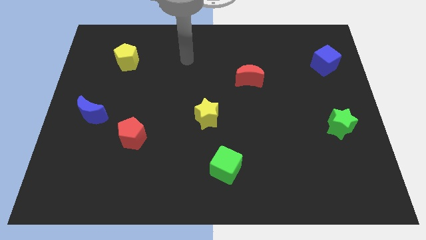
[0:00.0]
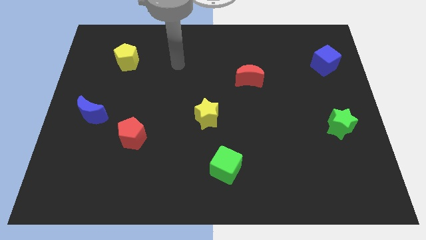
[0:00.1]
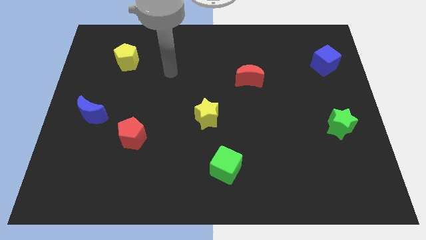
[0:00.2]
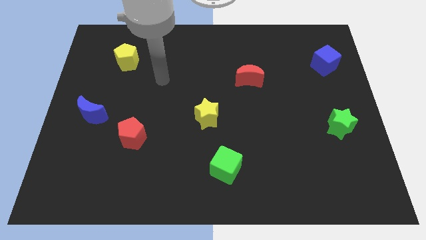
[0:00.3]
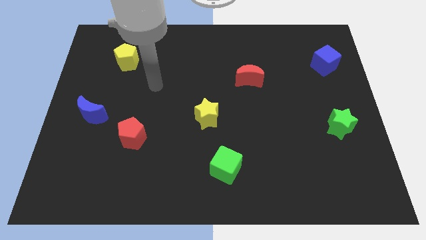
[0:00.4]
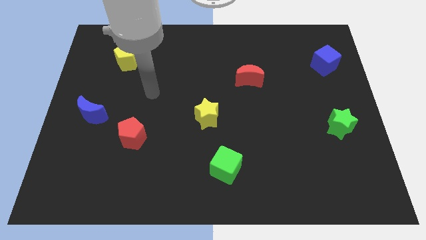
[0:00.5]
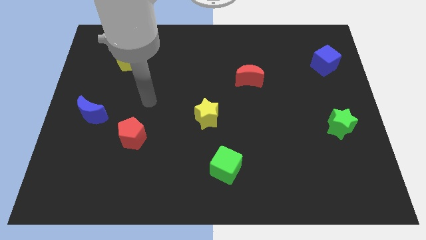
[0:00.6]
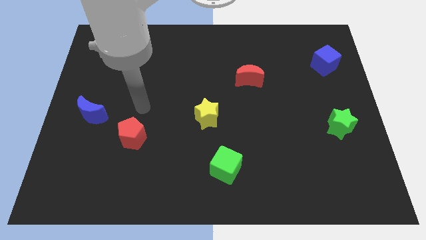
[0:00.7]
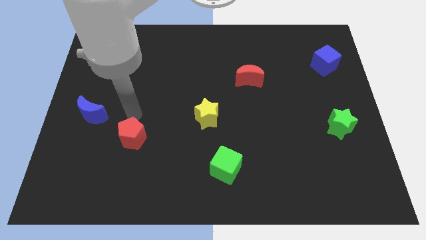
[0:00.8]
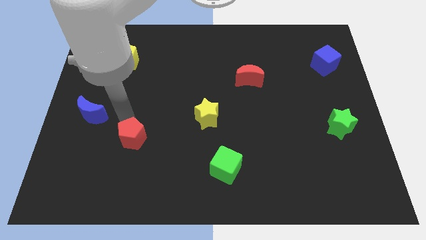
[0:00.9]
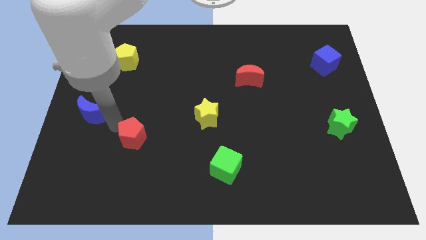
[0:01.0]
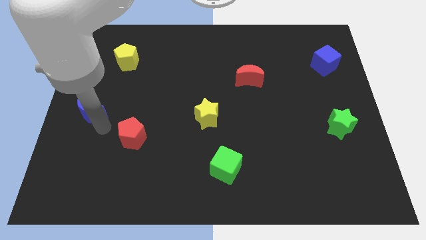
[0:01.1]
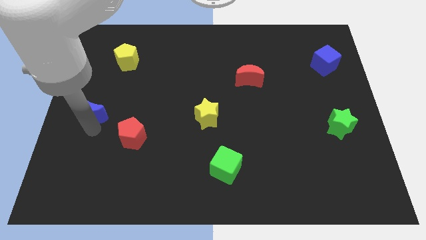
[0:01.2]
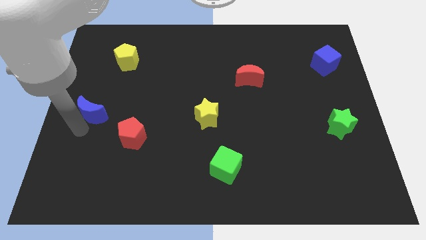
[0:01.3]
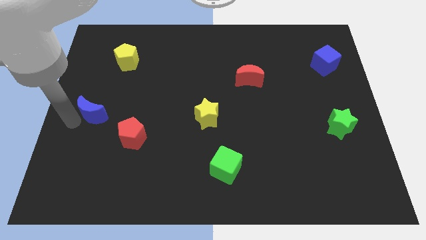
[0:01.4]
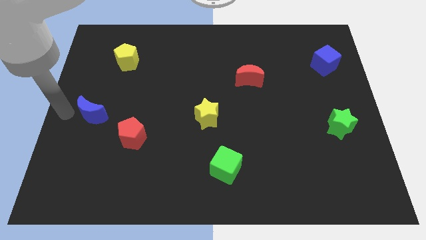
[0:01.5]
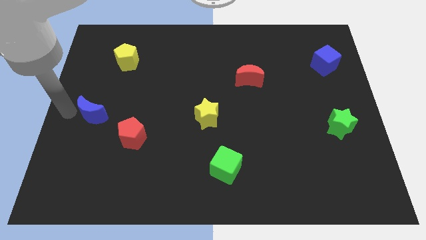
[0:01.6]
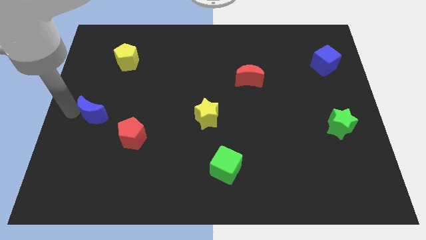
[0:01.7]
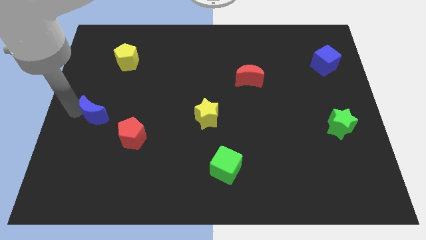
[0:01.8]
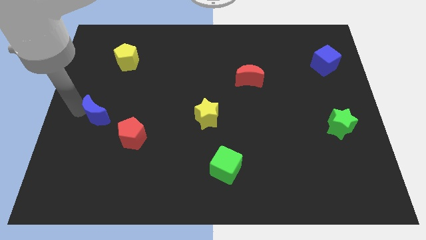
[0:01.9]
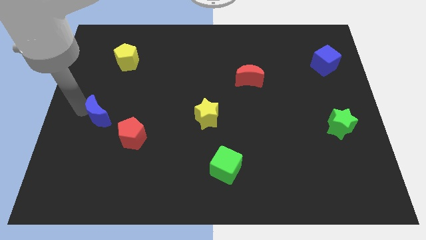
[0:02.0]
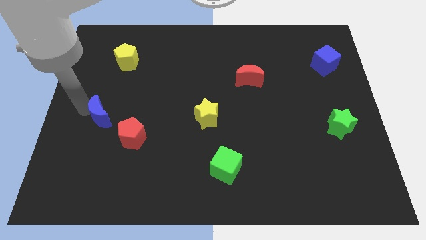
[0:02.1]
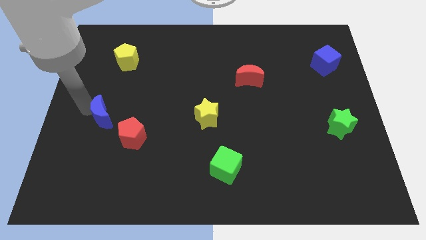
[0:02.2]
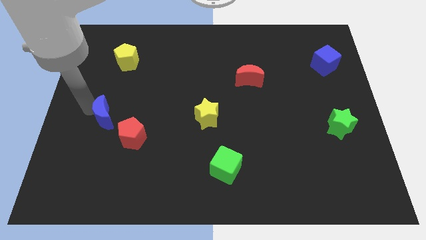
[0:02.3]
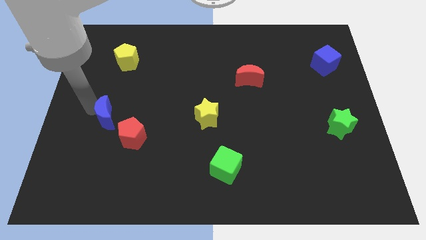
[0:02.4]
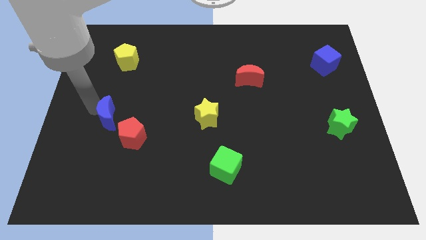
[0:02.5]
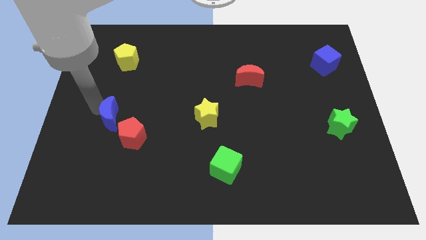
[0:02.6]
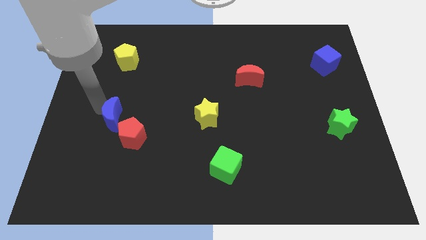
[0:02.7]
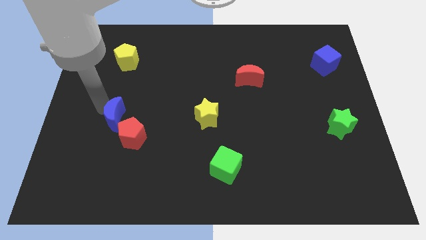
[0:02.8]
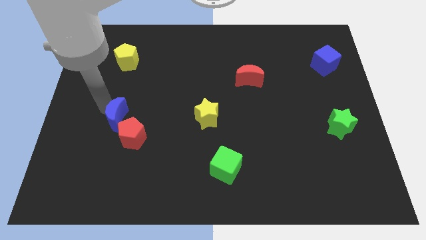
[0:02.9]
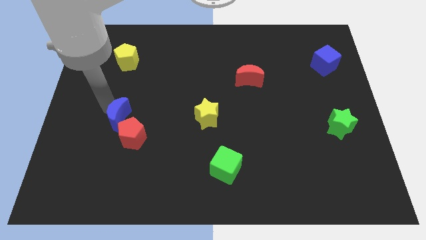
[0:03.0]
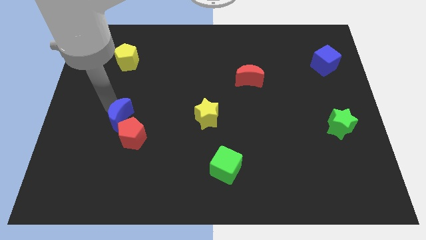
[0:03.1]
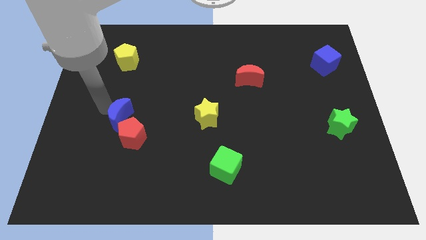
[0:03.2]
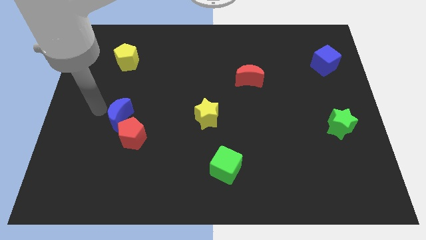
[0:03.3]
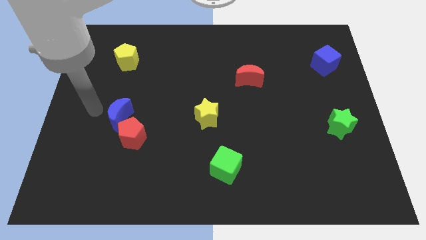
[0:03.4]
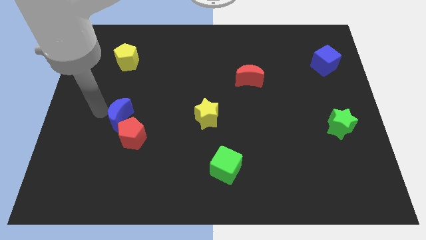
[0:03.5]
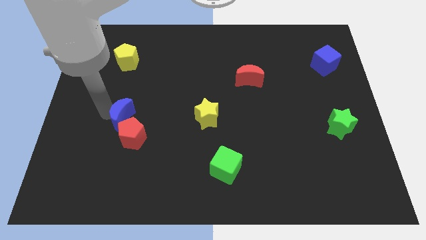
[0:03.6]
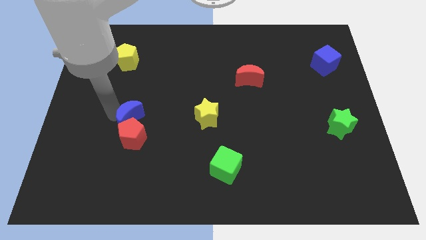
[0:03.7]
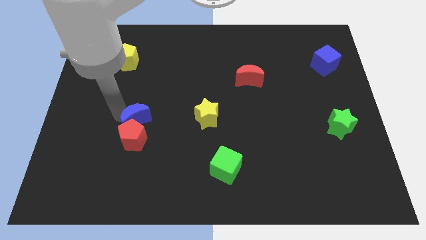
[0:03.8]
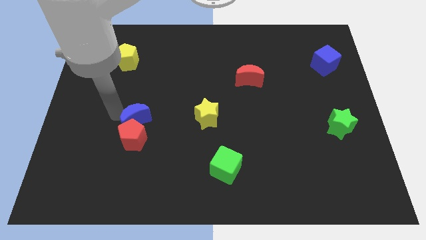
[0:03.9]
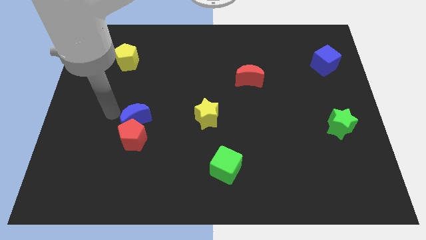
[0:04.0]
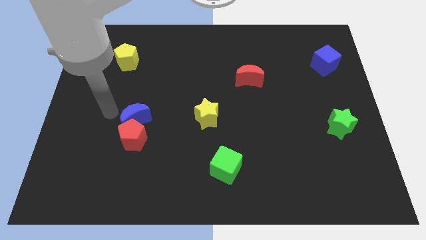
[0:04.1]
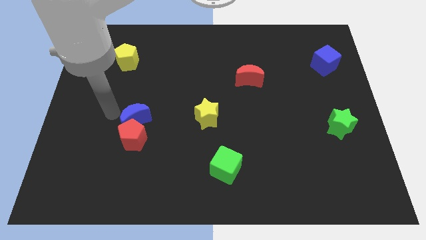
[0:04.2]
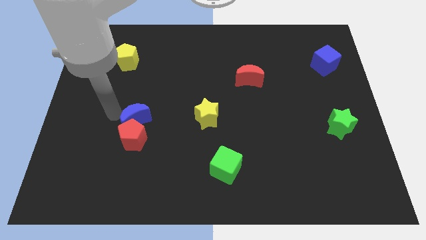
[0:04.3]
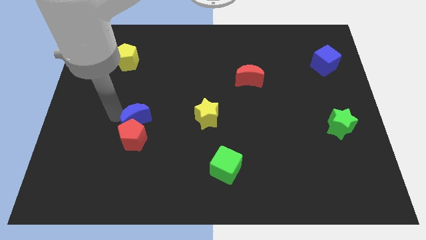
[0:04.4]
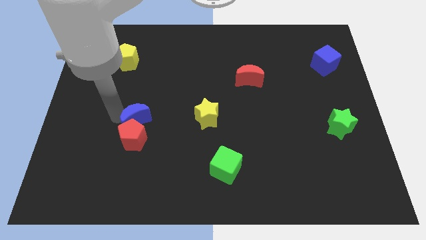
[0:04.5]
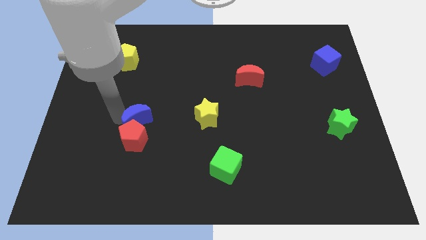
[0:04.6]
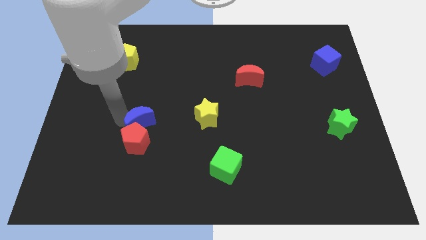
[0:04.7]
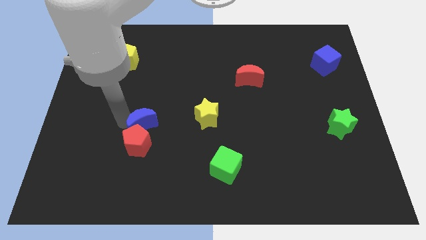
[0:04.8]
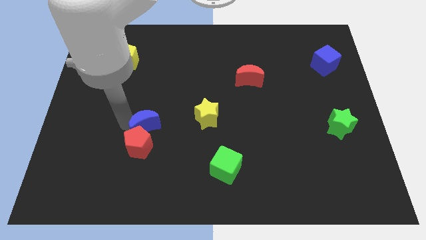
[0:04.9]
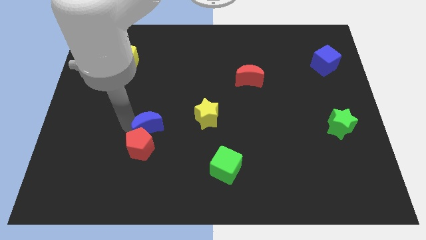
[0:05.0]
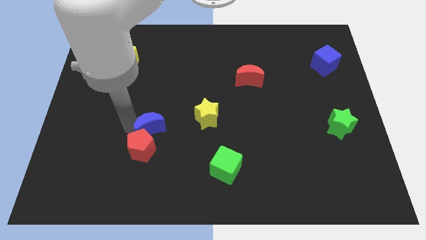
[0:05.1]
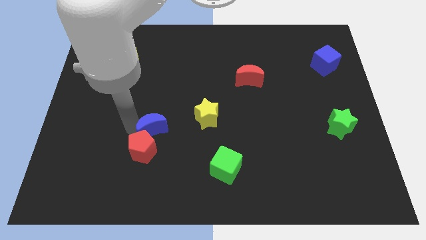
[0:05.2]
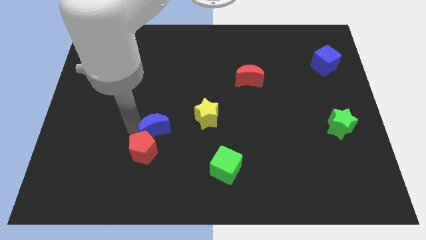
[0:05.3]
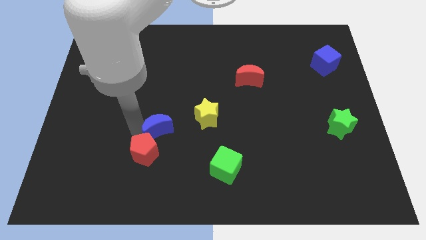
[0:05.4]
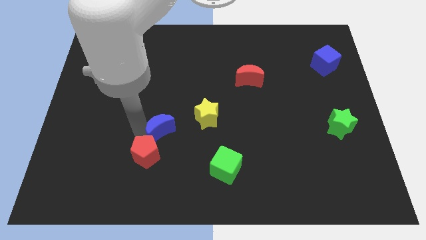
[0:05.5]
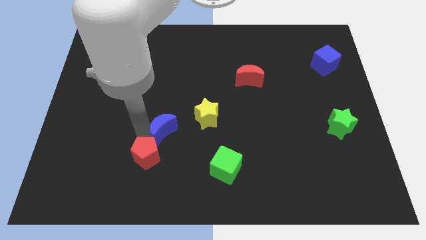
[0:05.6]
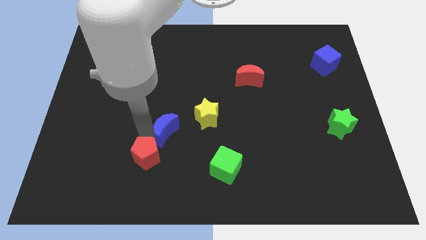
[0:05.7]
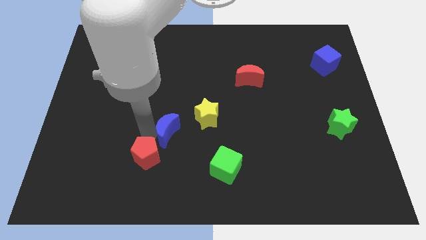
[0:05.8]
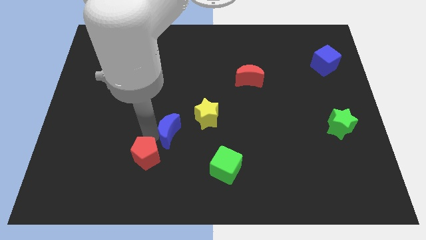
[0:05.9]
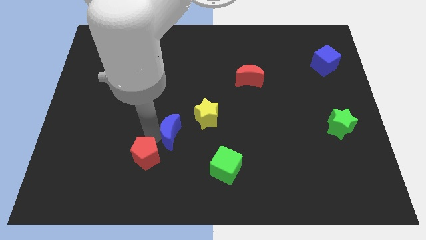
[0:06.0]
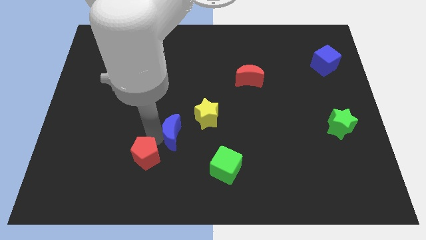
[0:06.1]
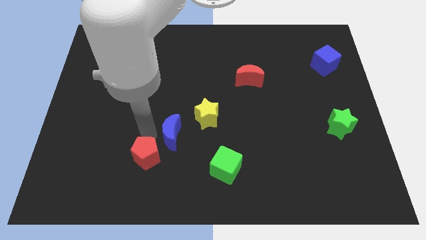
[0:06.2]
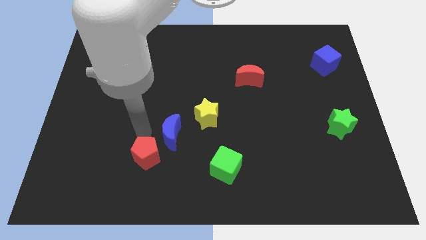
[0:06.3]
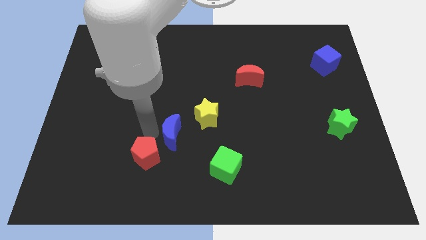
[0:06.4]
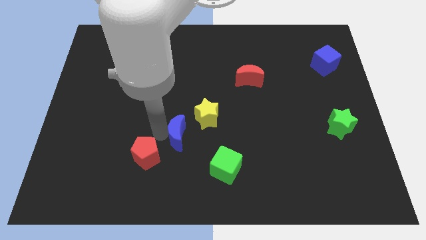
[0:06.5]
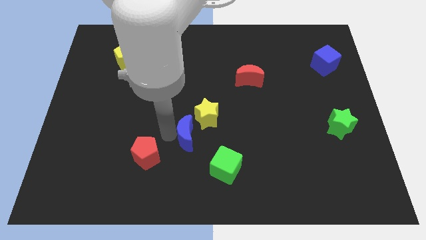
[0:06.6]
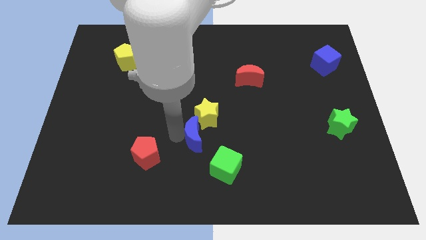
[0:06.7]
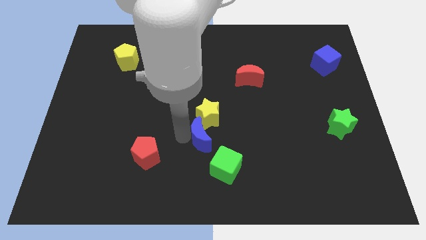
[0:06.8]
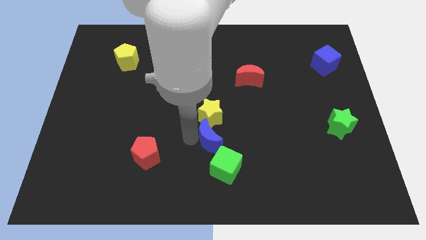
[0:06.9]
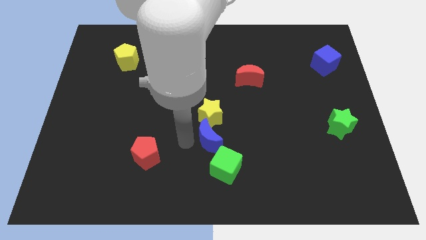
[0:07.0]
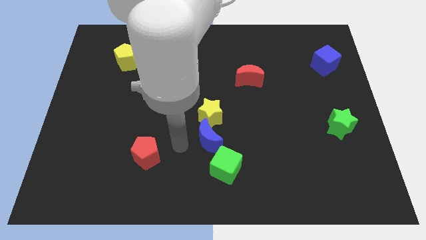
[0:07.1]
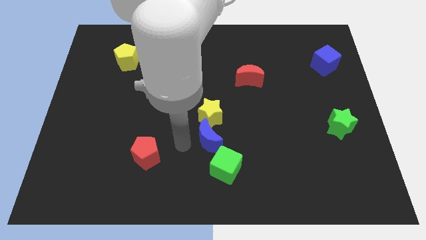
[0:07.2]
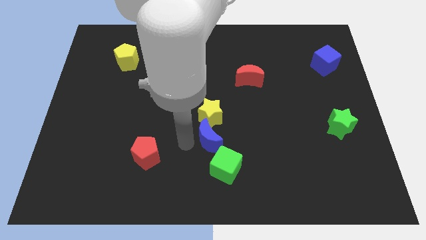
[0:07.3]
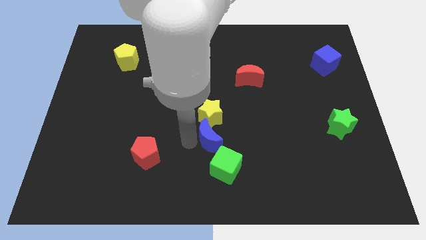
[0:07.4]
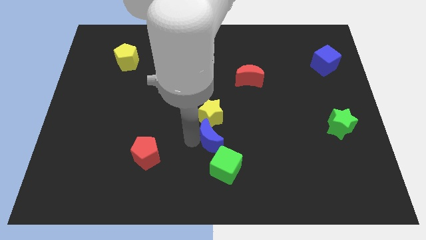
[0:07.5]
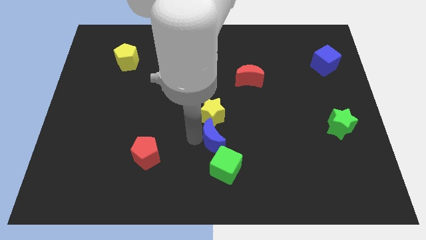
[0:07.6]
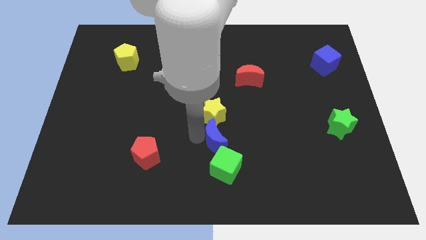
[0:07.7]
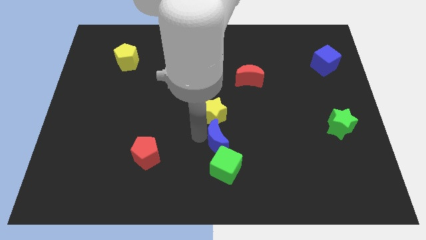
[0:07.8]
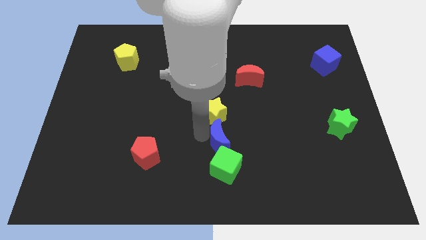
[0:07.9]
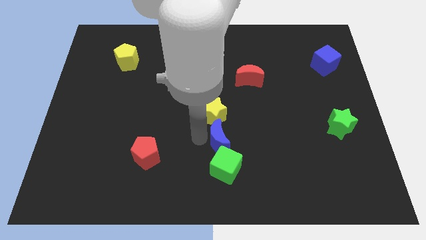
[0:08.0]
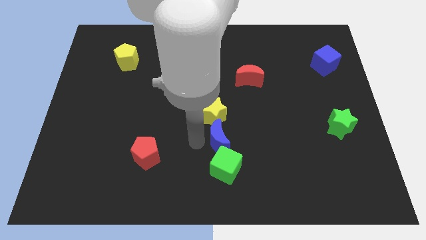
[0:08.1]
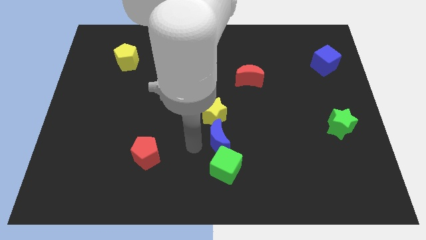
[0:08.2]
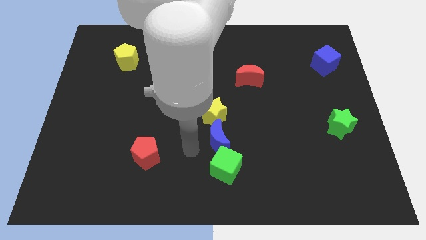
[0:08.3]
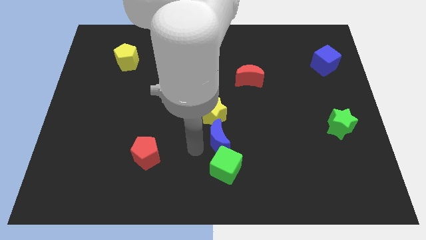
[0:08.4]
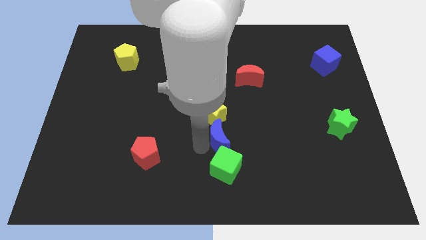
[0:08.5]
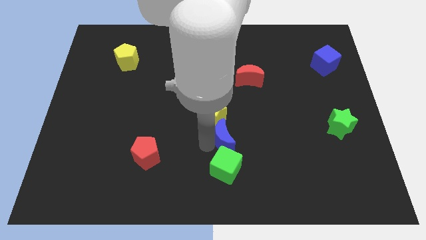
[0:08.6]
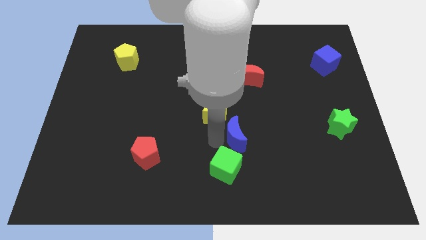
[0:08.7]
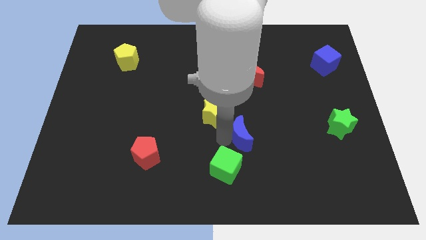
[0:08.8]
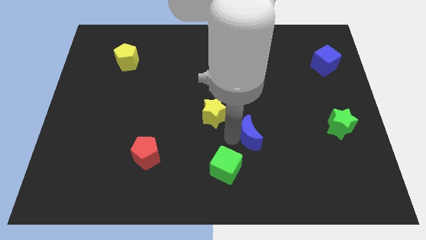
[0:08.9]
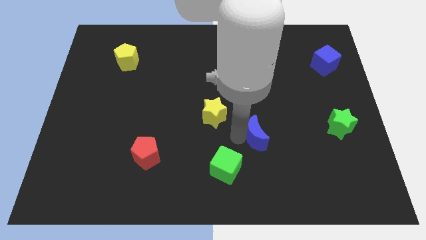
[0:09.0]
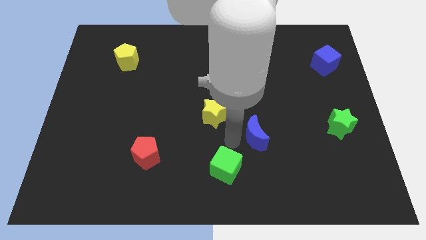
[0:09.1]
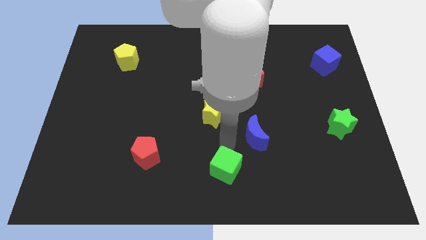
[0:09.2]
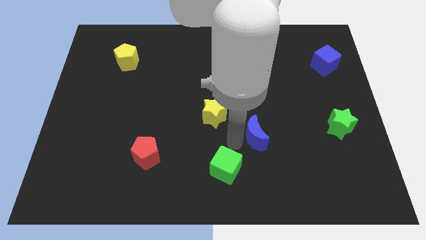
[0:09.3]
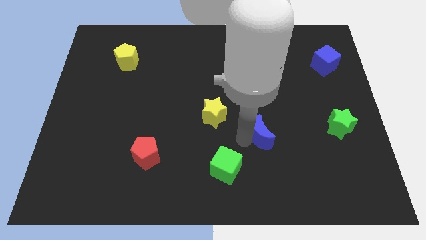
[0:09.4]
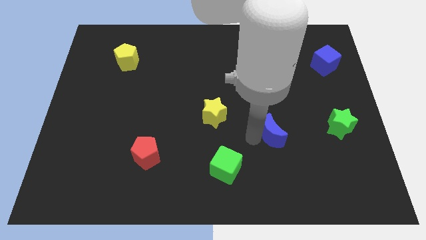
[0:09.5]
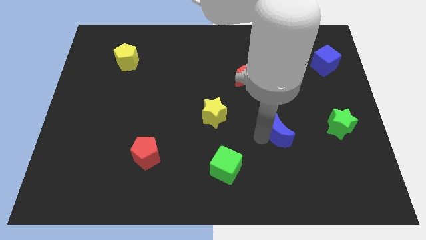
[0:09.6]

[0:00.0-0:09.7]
move the blue moon to the left of the green star
